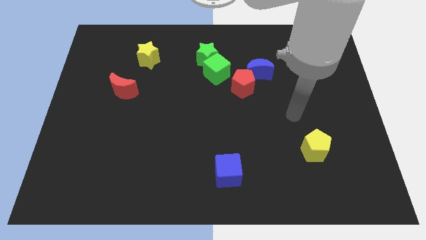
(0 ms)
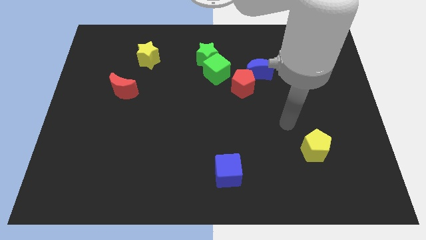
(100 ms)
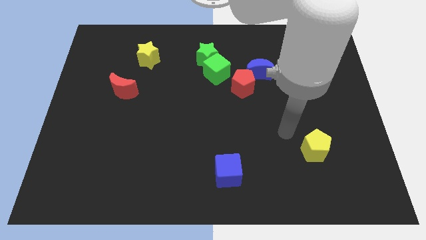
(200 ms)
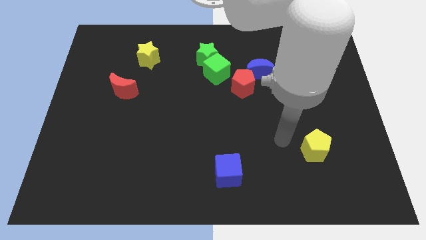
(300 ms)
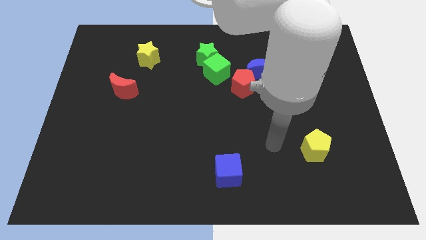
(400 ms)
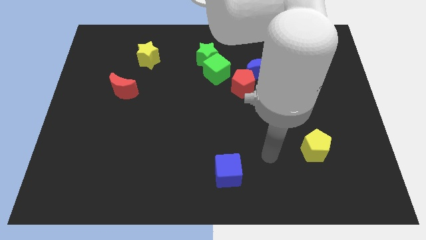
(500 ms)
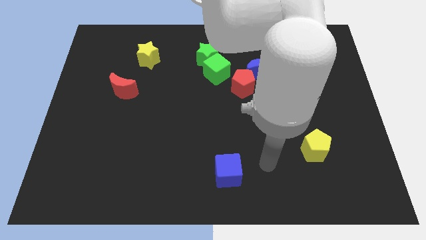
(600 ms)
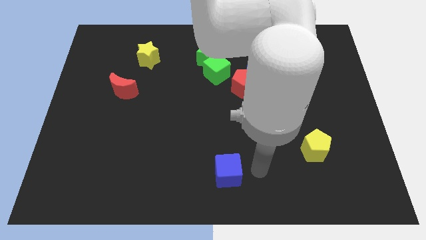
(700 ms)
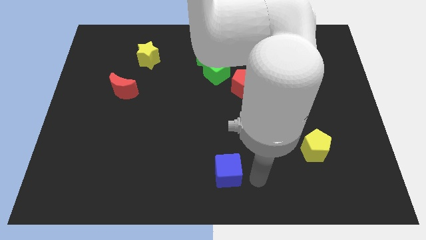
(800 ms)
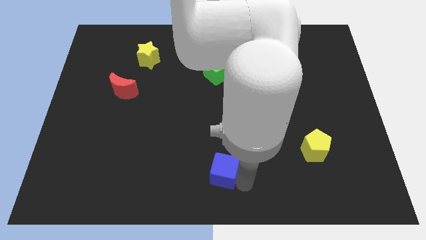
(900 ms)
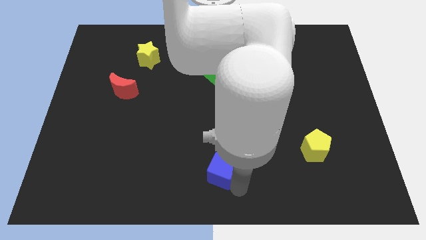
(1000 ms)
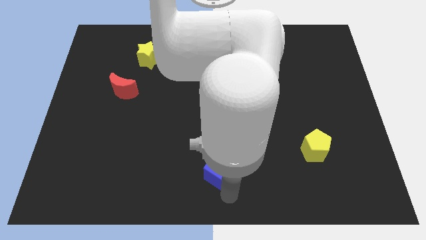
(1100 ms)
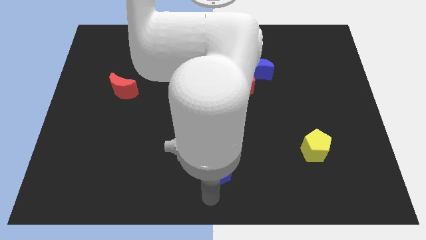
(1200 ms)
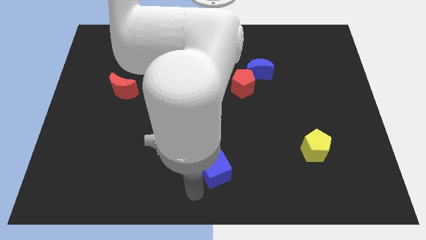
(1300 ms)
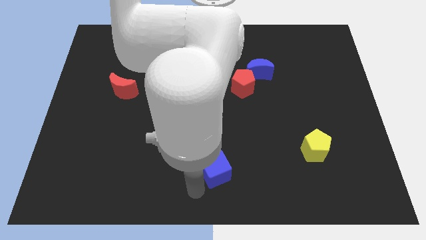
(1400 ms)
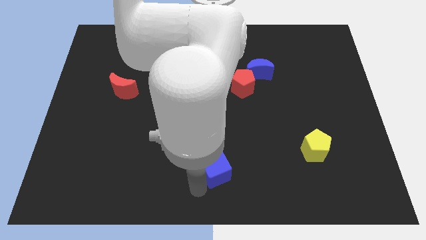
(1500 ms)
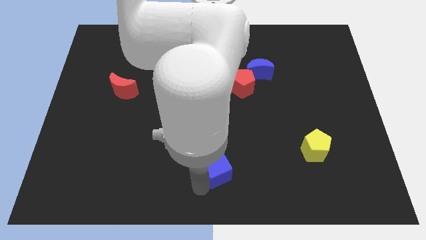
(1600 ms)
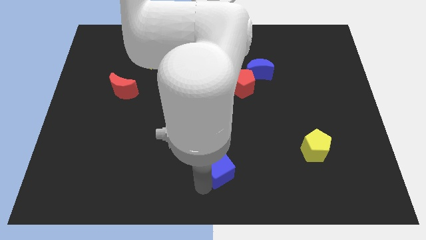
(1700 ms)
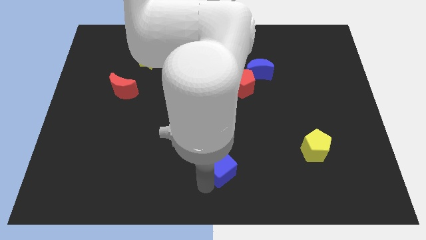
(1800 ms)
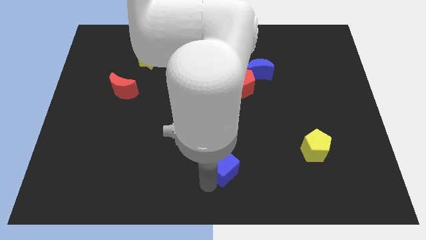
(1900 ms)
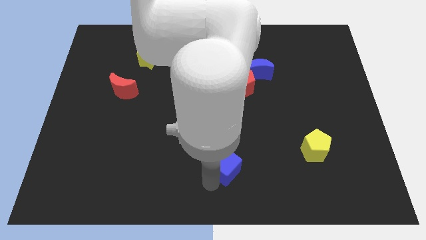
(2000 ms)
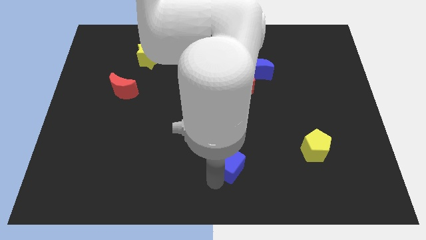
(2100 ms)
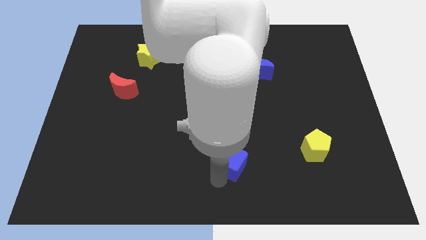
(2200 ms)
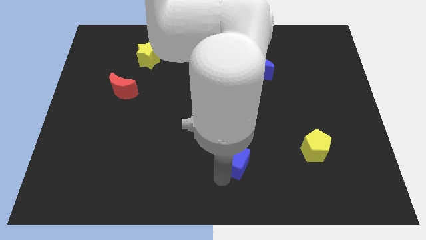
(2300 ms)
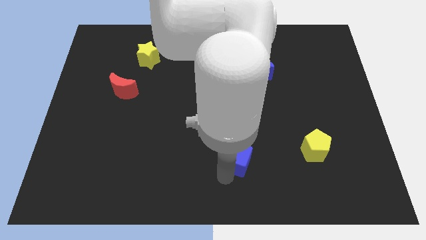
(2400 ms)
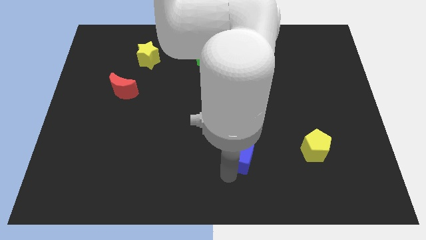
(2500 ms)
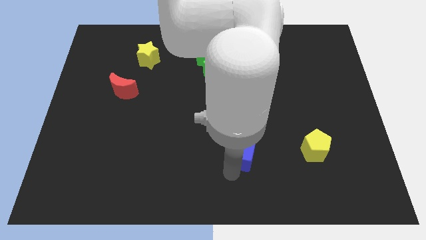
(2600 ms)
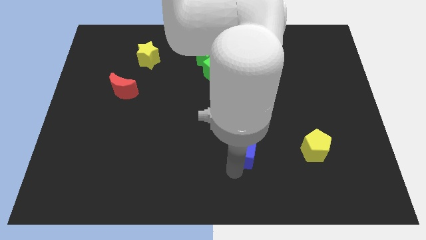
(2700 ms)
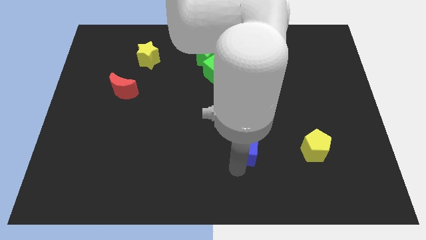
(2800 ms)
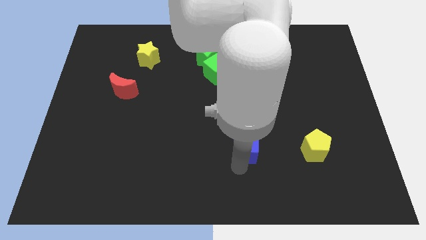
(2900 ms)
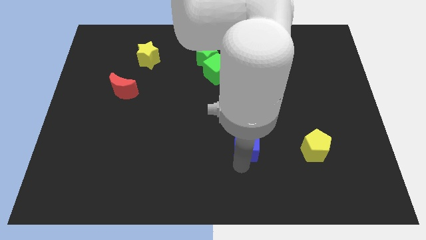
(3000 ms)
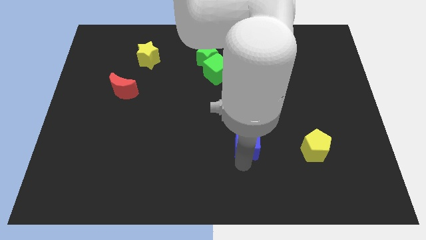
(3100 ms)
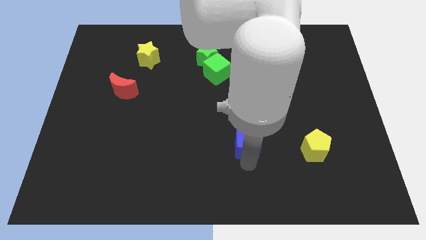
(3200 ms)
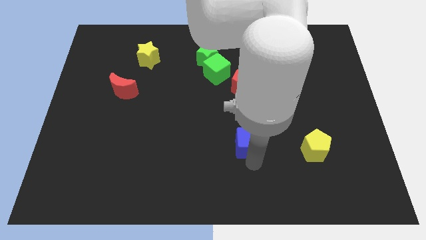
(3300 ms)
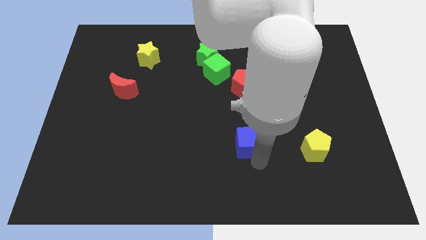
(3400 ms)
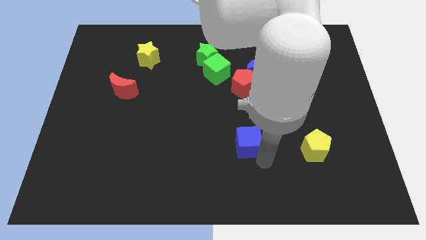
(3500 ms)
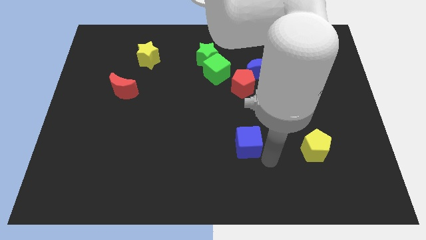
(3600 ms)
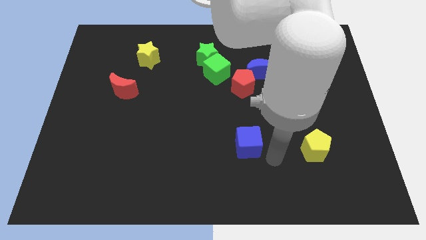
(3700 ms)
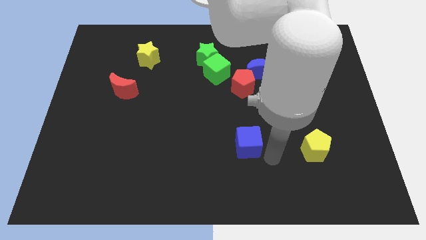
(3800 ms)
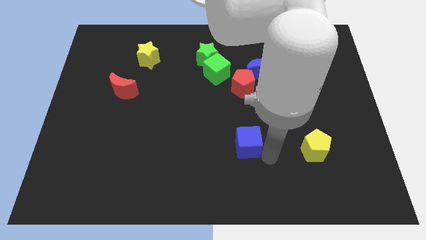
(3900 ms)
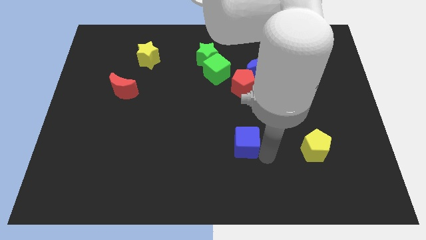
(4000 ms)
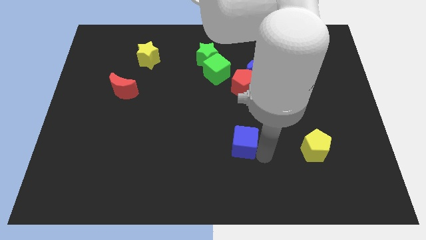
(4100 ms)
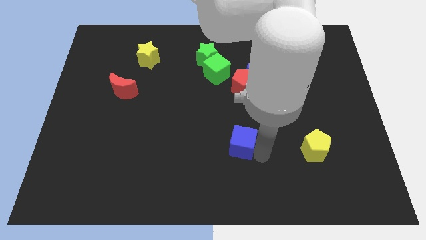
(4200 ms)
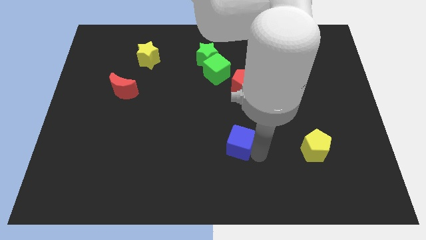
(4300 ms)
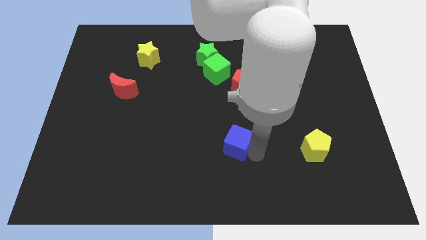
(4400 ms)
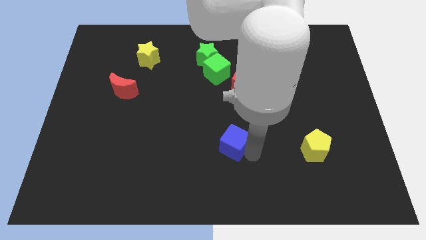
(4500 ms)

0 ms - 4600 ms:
slightly push the blue cube up

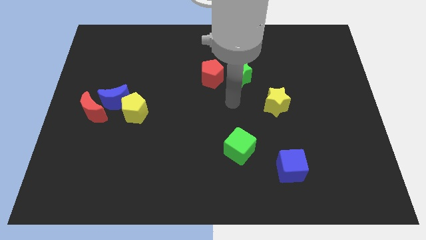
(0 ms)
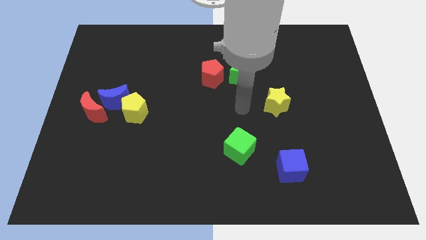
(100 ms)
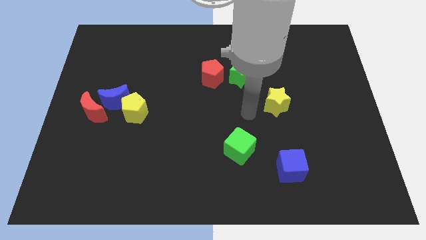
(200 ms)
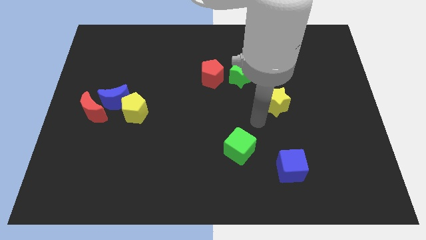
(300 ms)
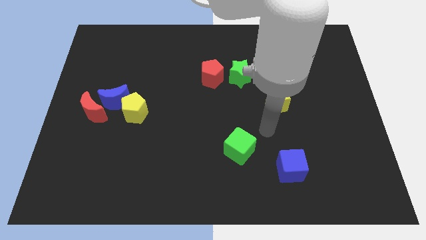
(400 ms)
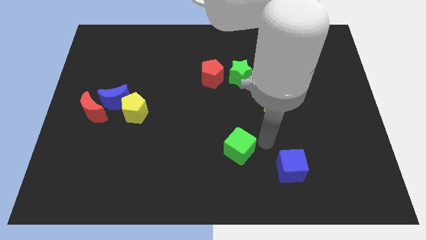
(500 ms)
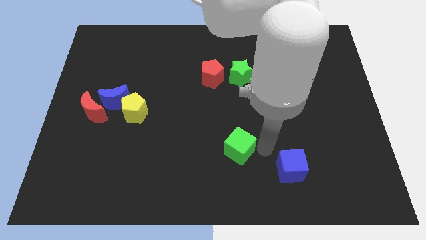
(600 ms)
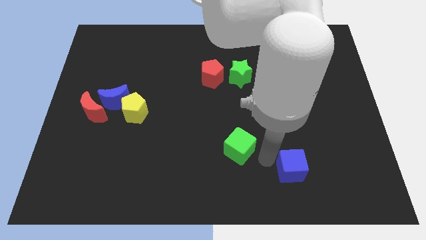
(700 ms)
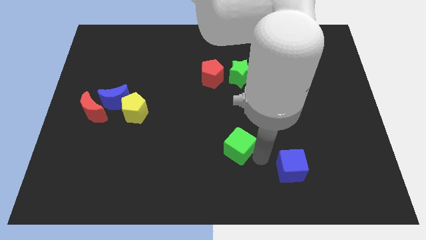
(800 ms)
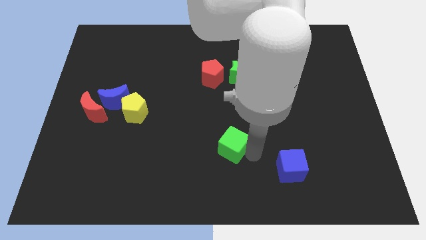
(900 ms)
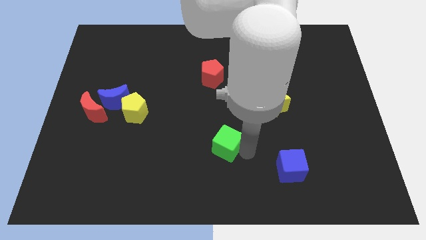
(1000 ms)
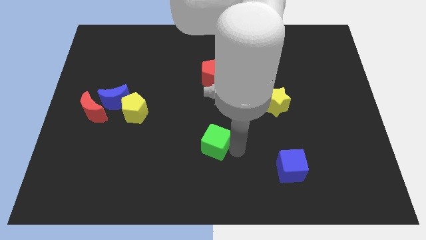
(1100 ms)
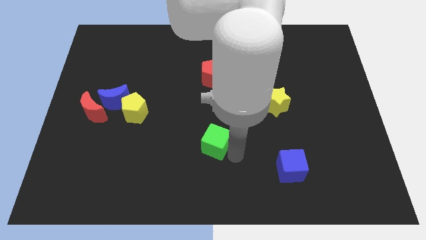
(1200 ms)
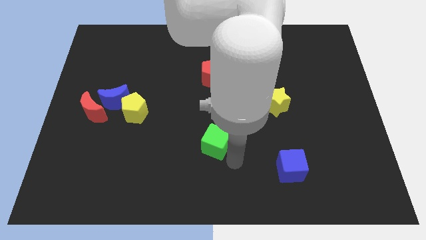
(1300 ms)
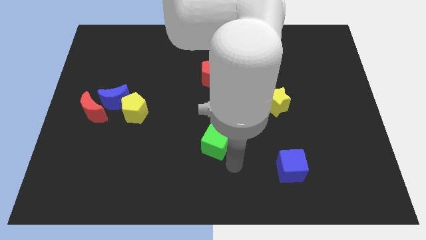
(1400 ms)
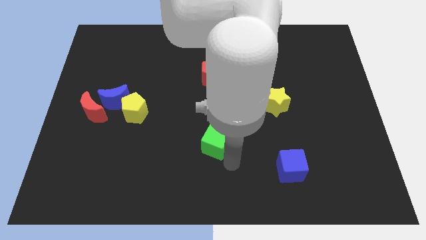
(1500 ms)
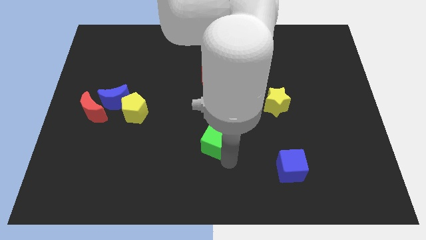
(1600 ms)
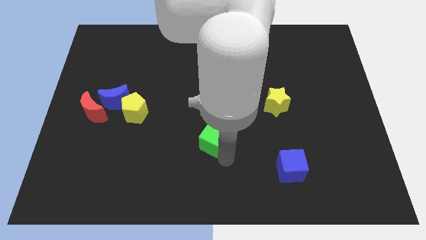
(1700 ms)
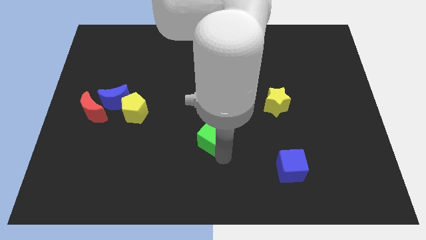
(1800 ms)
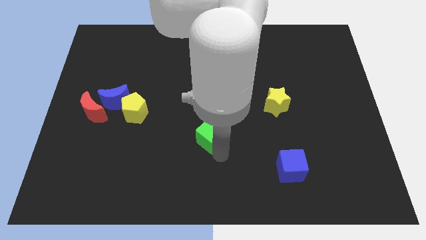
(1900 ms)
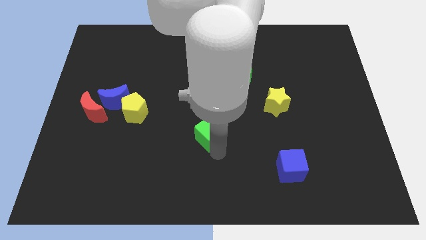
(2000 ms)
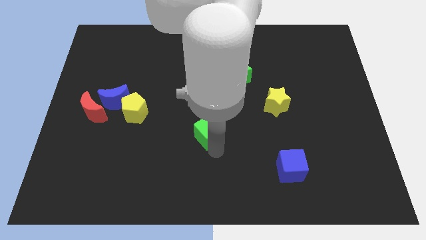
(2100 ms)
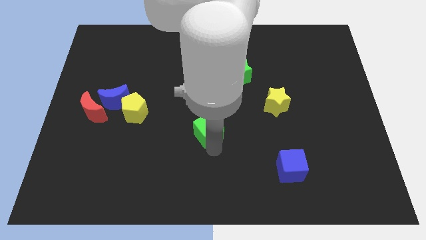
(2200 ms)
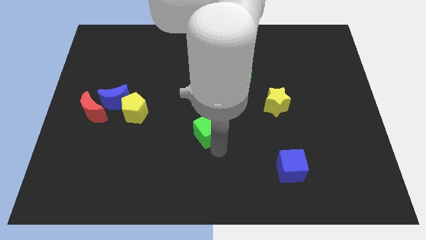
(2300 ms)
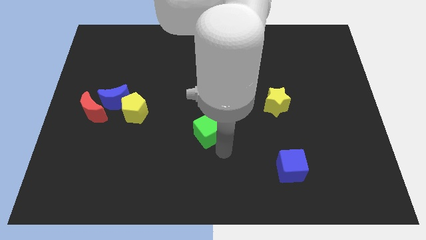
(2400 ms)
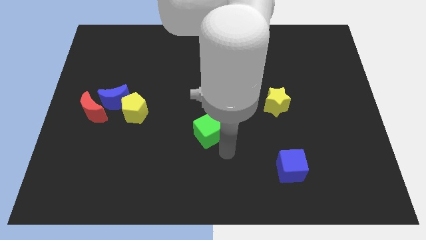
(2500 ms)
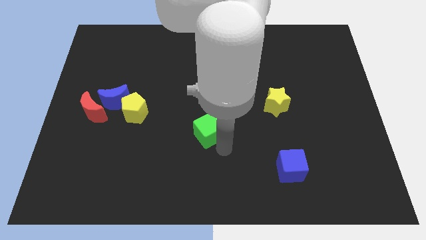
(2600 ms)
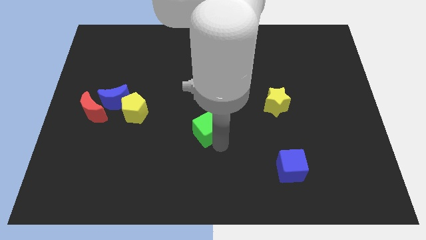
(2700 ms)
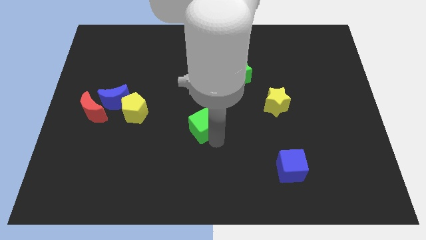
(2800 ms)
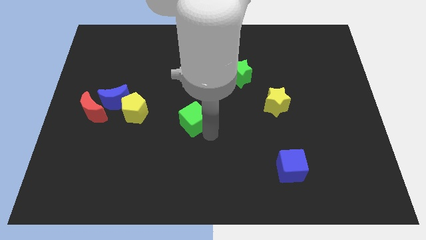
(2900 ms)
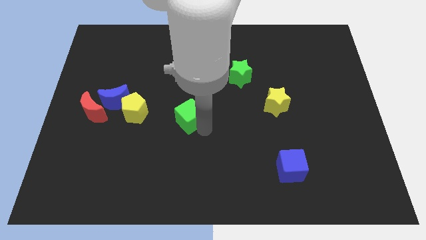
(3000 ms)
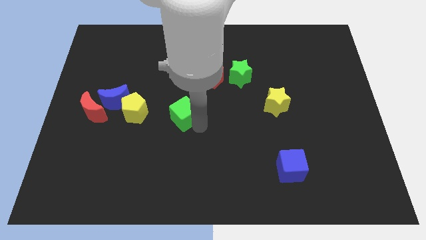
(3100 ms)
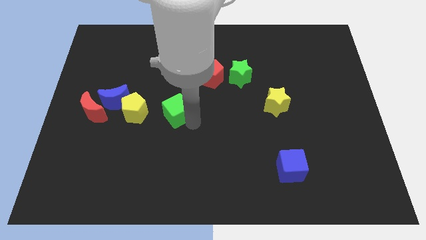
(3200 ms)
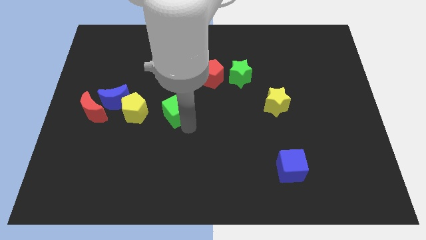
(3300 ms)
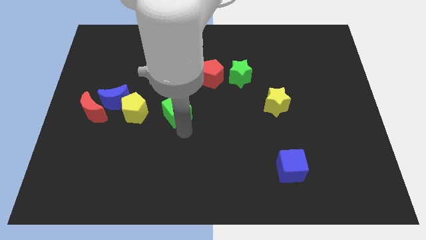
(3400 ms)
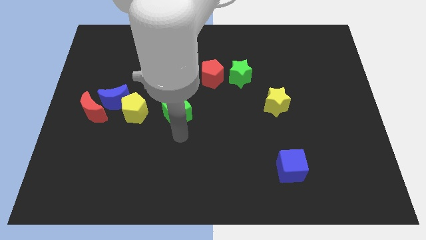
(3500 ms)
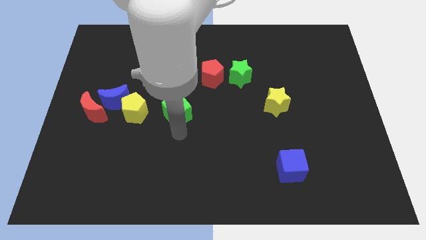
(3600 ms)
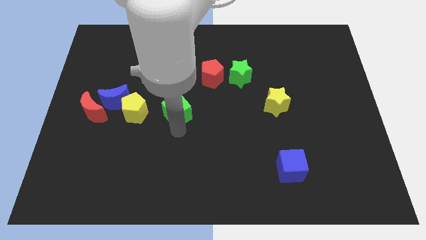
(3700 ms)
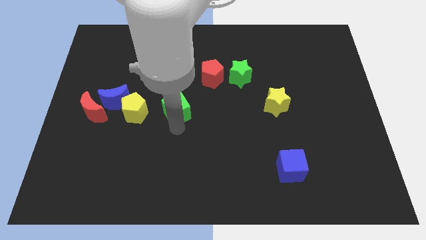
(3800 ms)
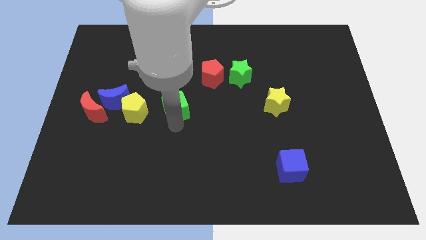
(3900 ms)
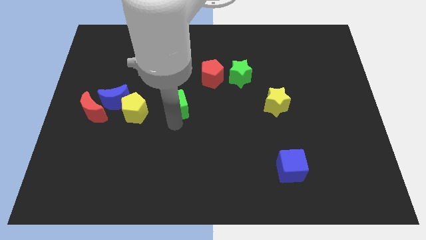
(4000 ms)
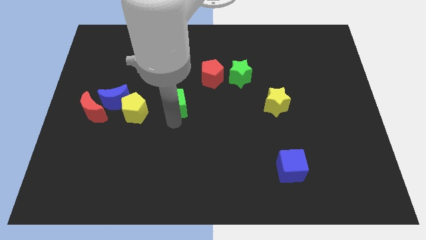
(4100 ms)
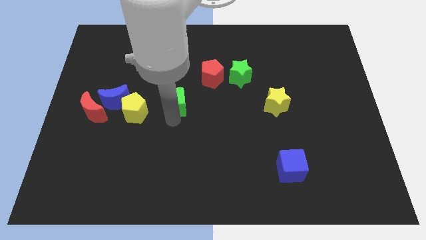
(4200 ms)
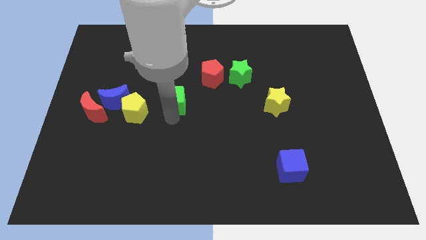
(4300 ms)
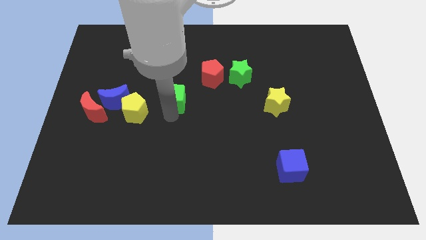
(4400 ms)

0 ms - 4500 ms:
push the green cube up and to the left diagonally
